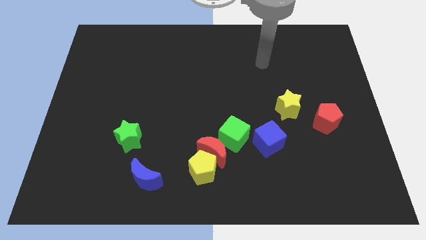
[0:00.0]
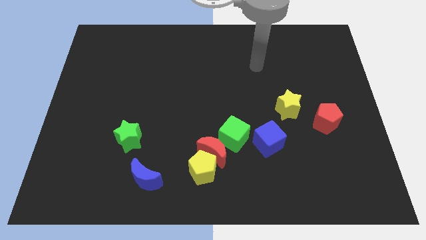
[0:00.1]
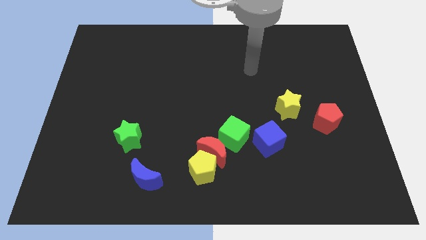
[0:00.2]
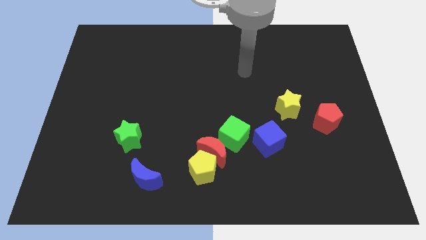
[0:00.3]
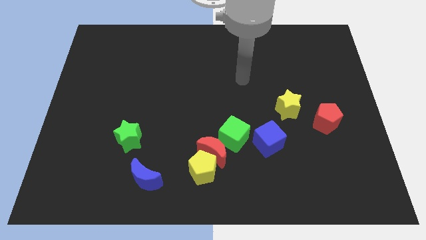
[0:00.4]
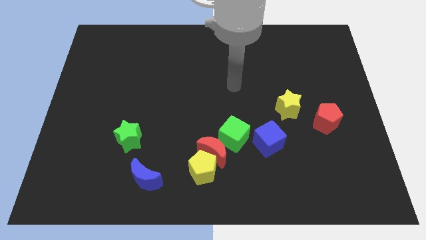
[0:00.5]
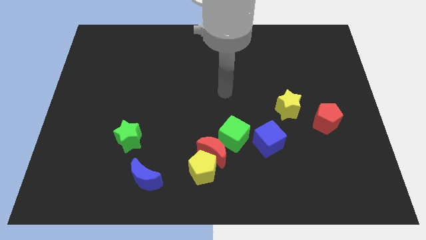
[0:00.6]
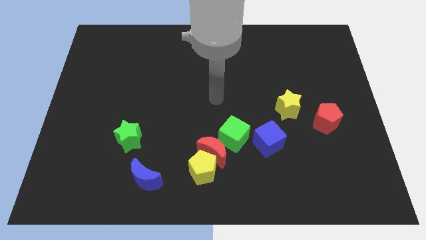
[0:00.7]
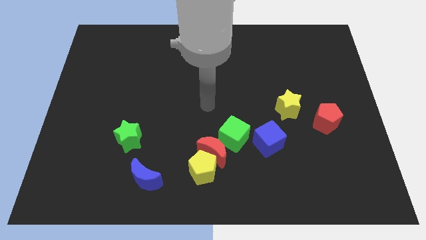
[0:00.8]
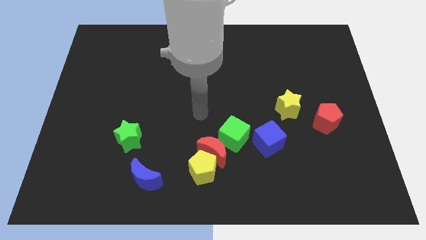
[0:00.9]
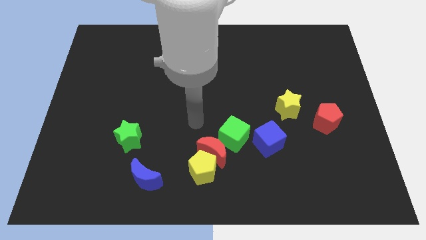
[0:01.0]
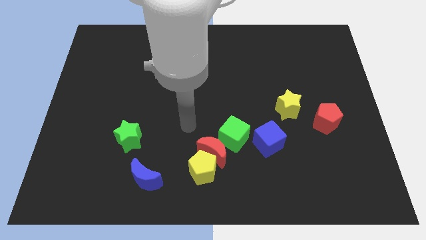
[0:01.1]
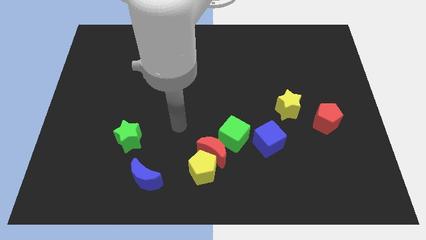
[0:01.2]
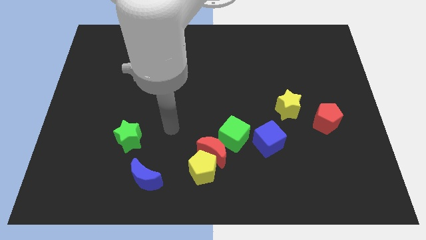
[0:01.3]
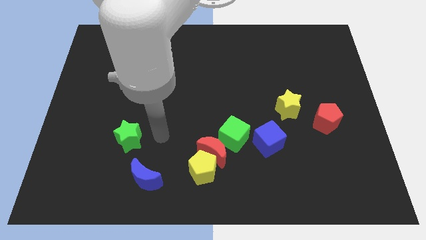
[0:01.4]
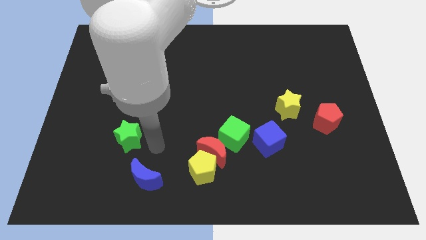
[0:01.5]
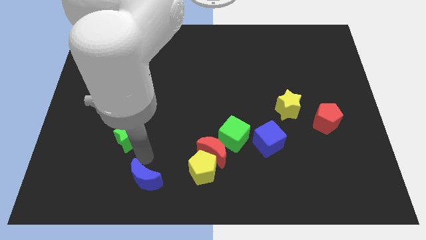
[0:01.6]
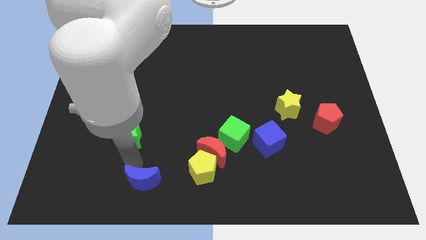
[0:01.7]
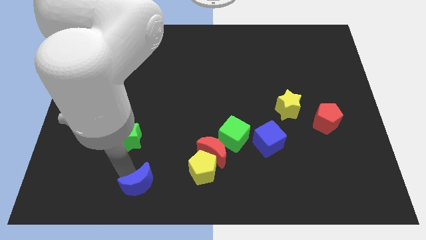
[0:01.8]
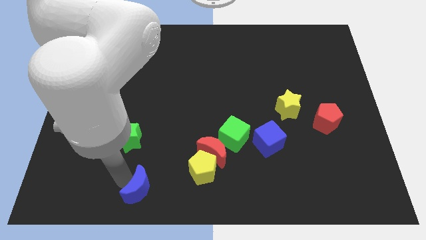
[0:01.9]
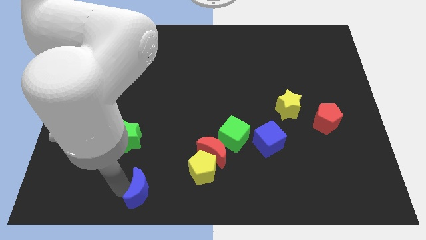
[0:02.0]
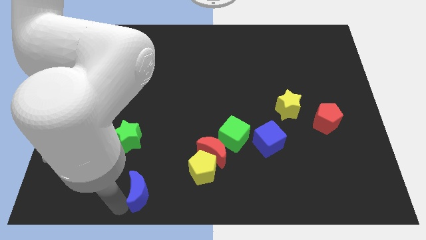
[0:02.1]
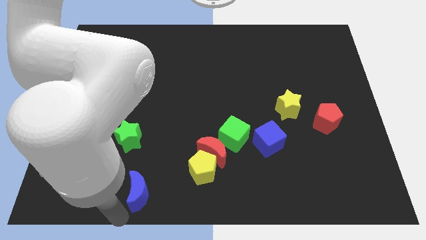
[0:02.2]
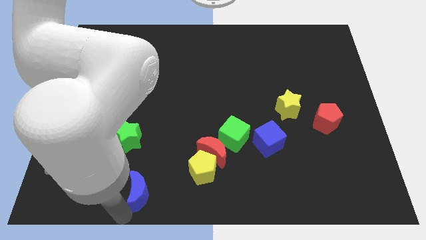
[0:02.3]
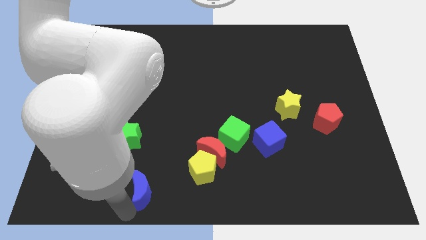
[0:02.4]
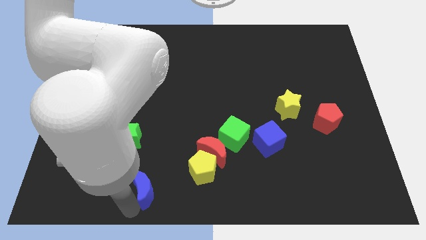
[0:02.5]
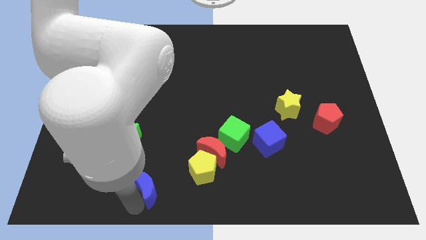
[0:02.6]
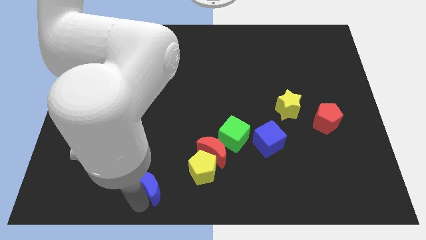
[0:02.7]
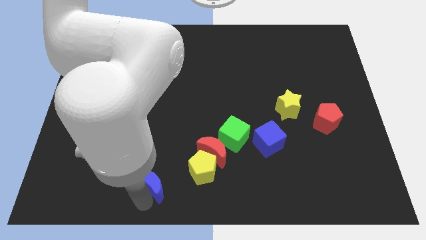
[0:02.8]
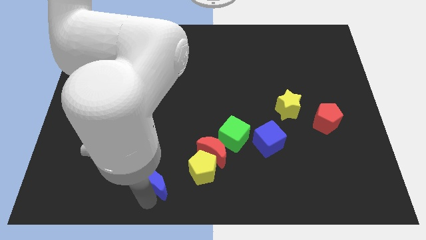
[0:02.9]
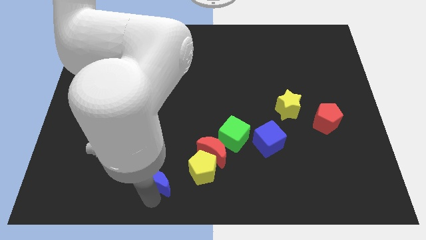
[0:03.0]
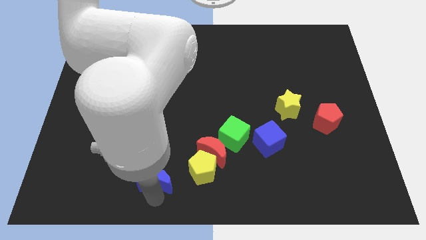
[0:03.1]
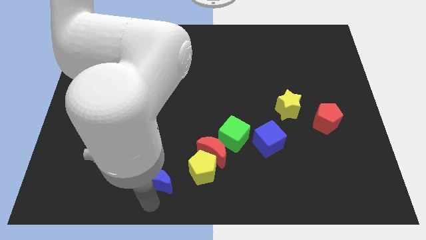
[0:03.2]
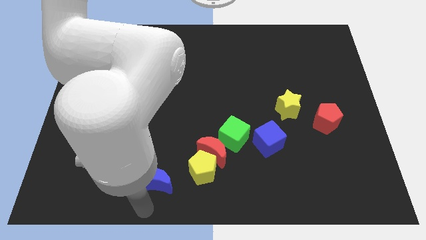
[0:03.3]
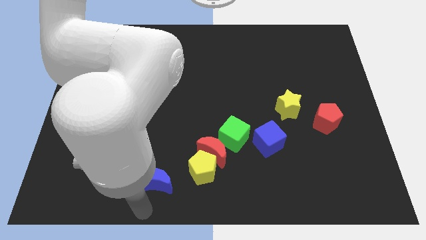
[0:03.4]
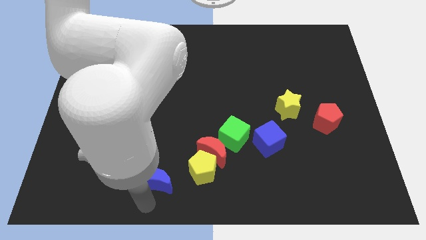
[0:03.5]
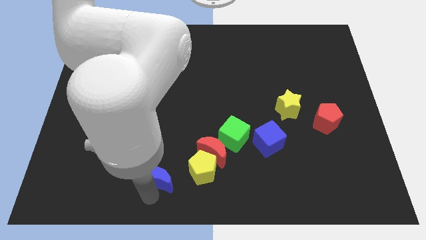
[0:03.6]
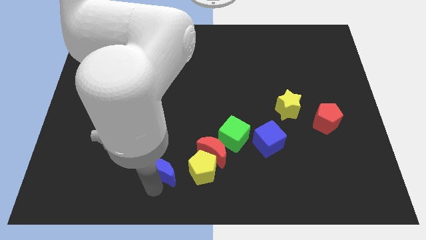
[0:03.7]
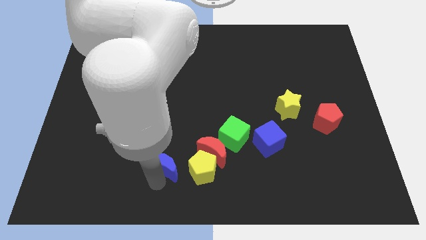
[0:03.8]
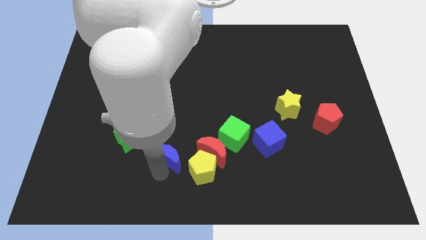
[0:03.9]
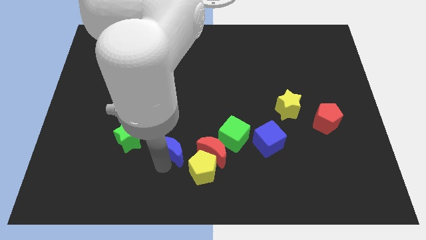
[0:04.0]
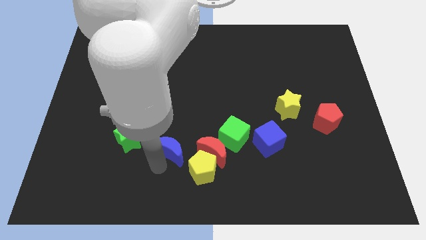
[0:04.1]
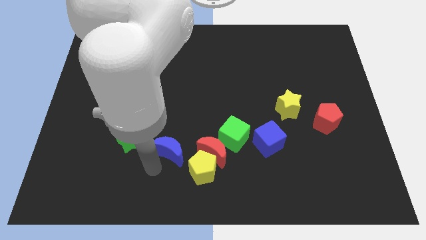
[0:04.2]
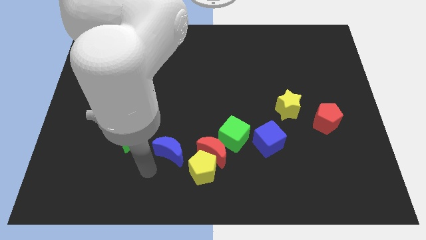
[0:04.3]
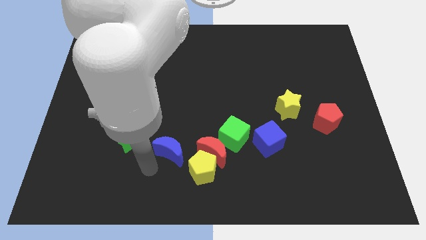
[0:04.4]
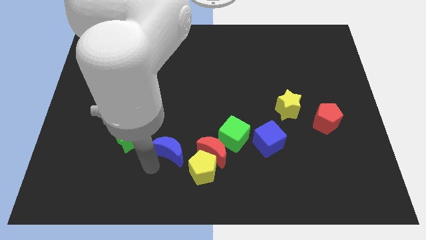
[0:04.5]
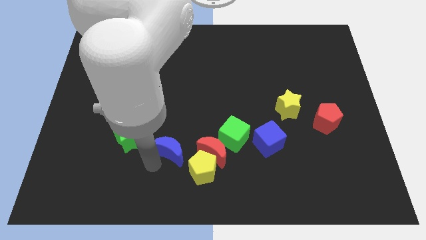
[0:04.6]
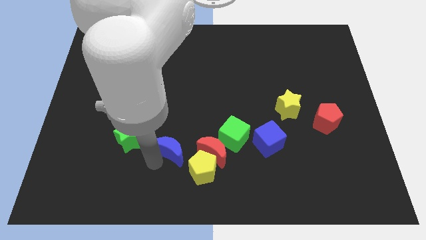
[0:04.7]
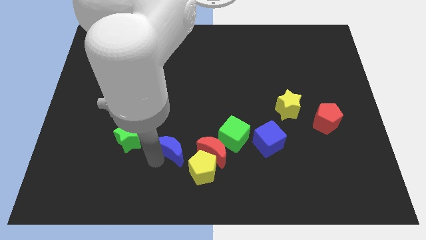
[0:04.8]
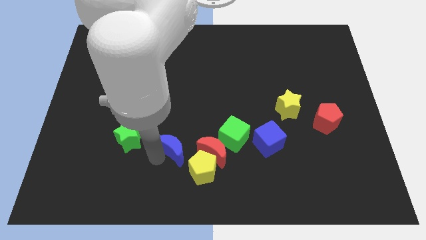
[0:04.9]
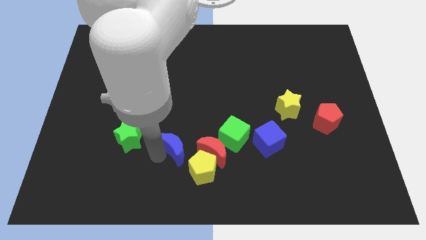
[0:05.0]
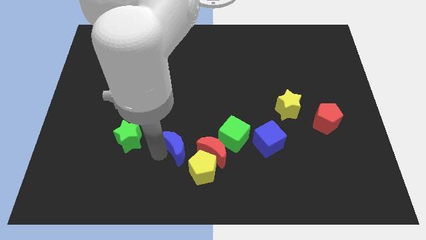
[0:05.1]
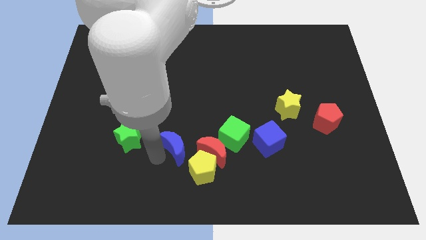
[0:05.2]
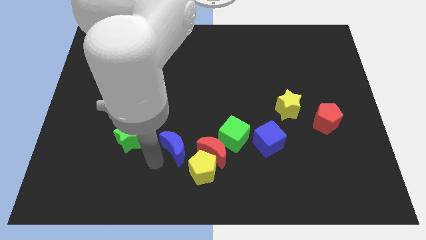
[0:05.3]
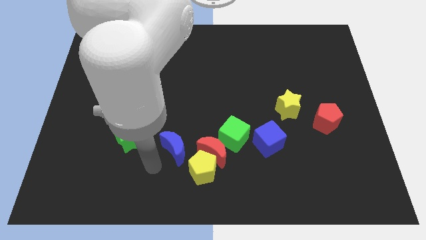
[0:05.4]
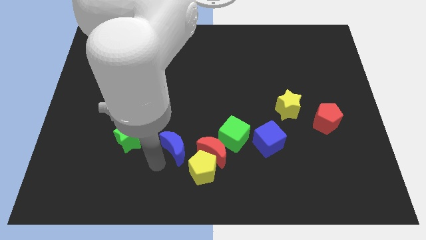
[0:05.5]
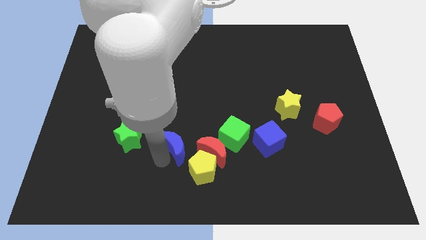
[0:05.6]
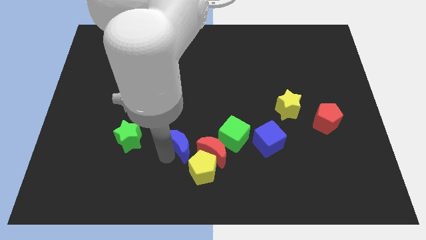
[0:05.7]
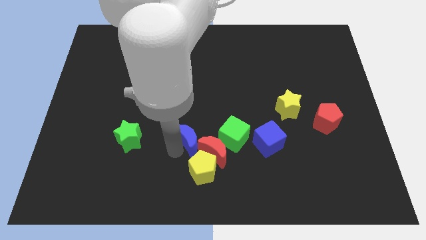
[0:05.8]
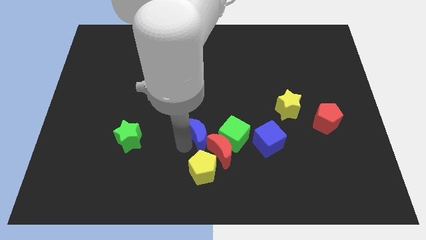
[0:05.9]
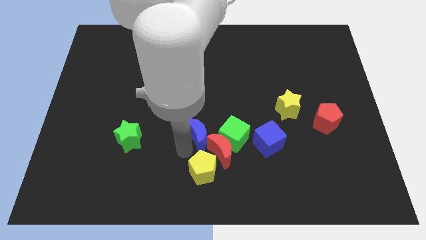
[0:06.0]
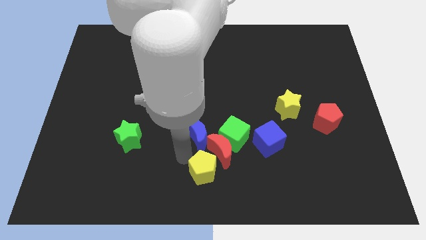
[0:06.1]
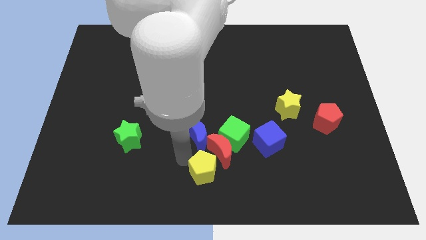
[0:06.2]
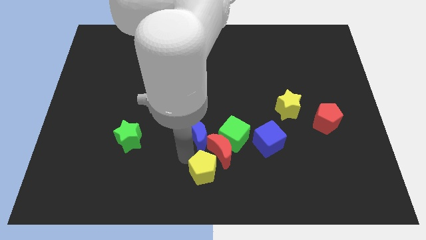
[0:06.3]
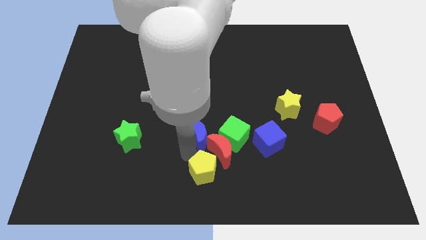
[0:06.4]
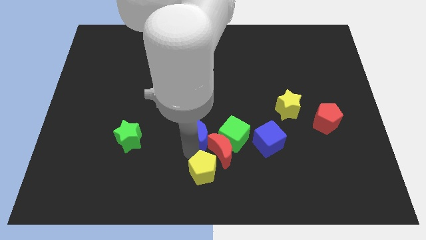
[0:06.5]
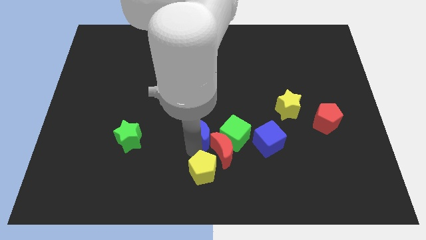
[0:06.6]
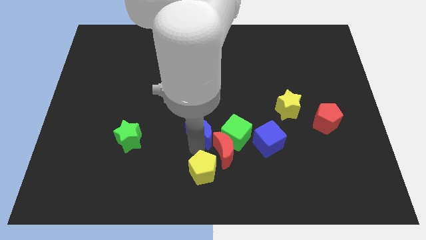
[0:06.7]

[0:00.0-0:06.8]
put the blue moon to the top left side of the green cube
